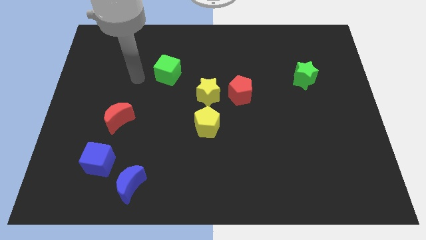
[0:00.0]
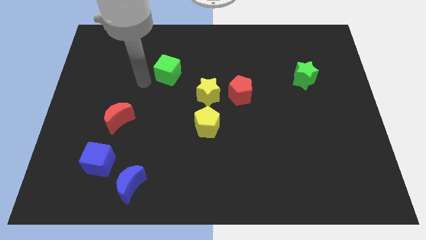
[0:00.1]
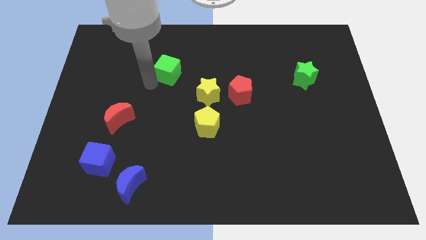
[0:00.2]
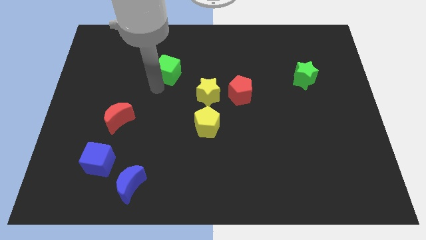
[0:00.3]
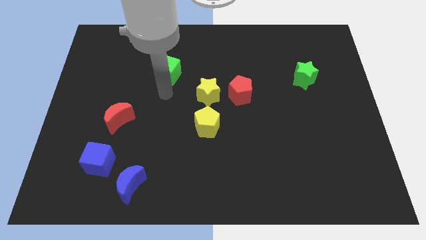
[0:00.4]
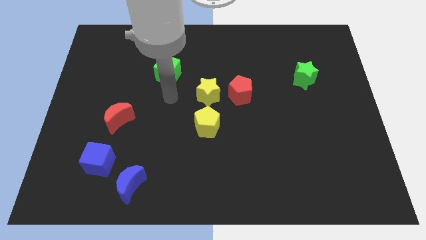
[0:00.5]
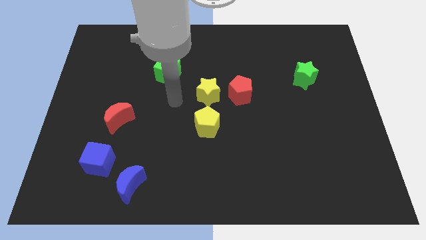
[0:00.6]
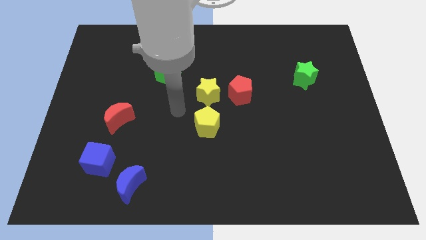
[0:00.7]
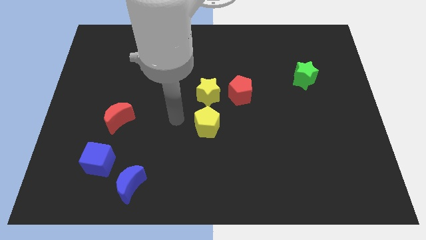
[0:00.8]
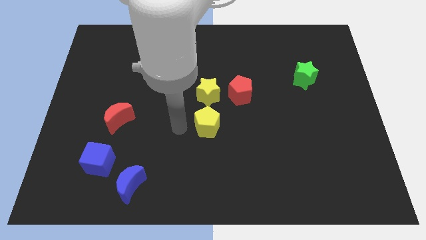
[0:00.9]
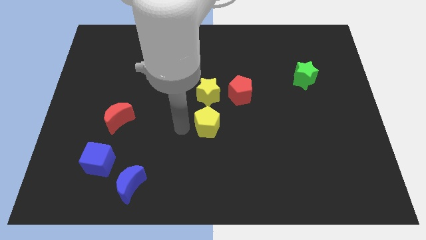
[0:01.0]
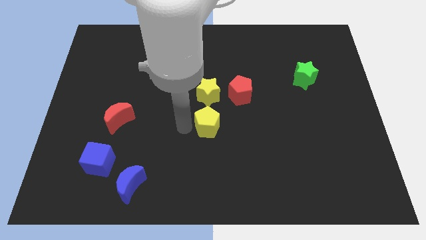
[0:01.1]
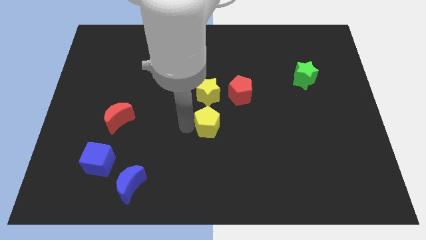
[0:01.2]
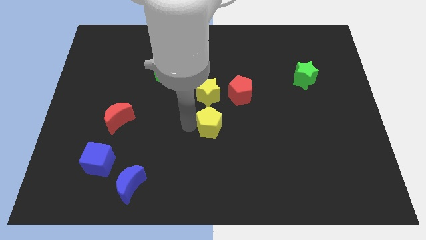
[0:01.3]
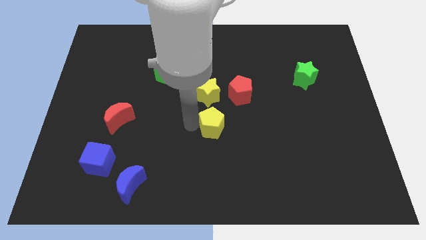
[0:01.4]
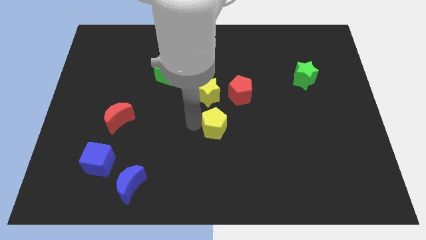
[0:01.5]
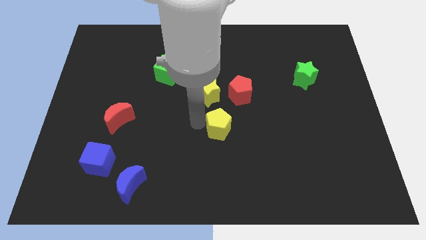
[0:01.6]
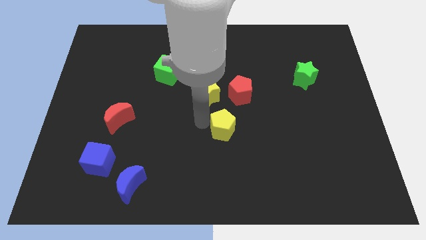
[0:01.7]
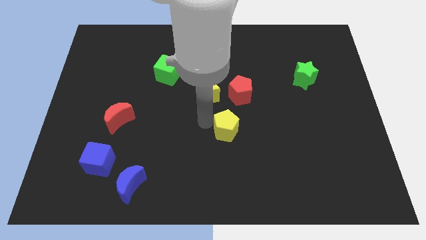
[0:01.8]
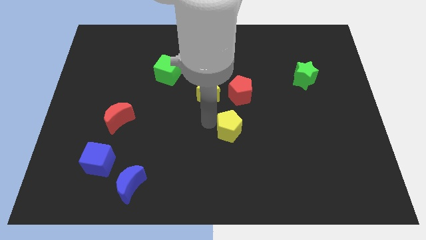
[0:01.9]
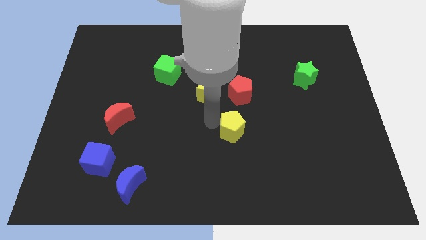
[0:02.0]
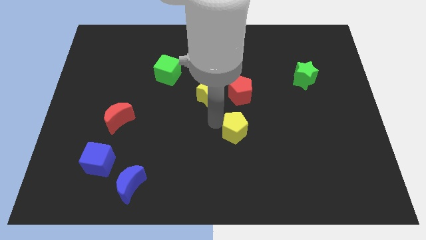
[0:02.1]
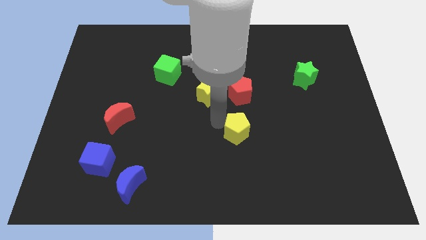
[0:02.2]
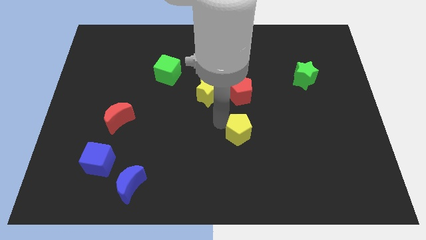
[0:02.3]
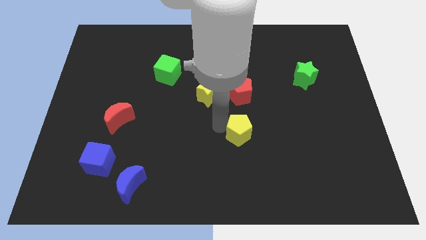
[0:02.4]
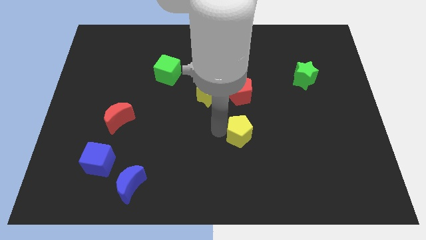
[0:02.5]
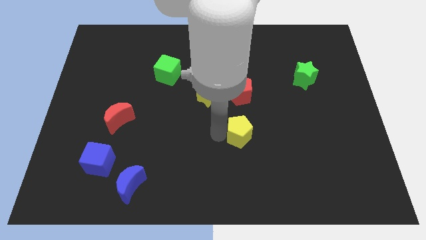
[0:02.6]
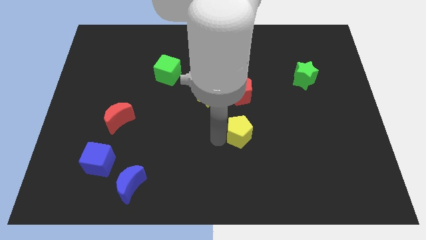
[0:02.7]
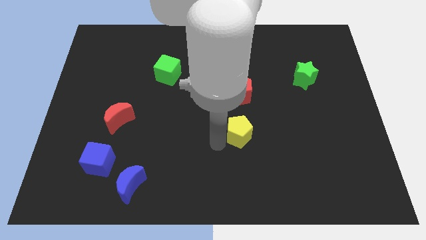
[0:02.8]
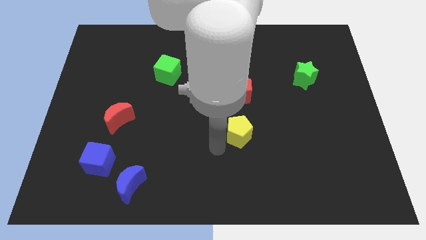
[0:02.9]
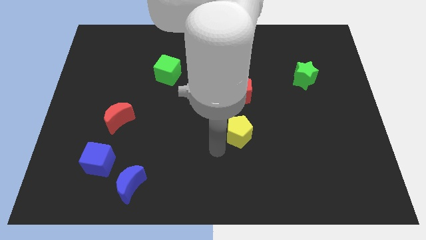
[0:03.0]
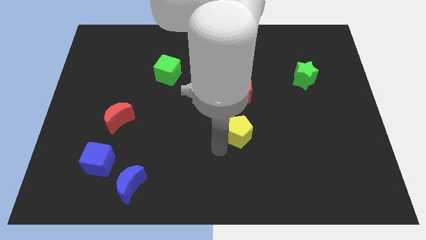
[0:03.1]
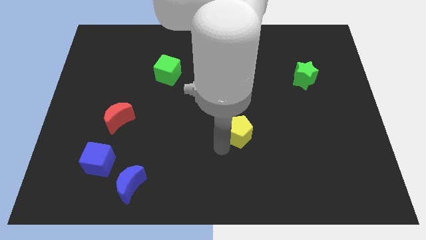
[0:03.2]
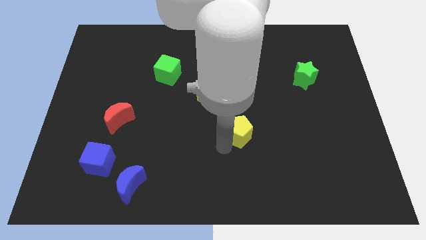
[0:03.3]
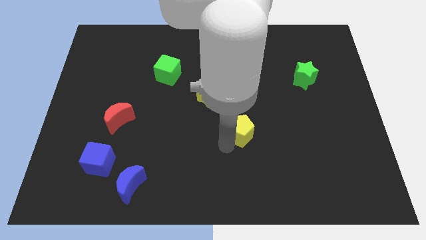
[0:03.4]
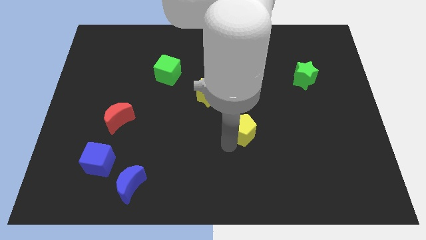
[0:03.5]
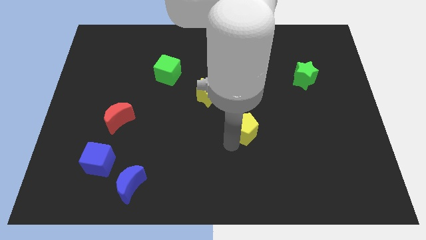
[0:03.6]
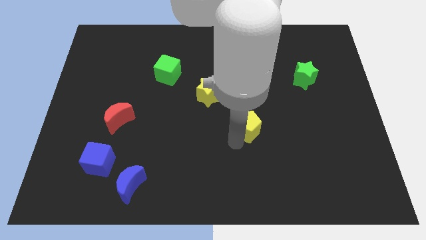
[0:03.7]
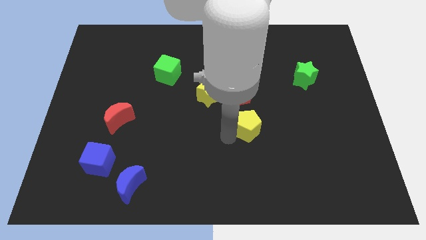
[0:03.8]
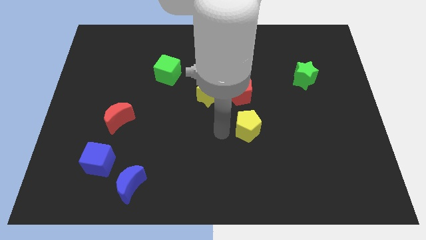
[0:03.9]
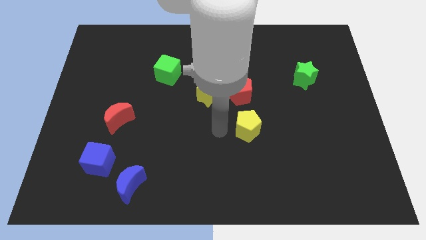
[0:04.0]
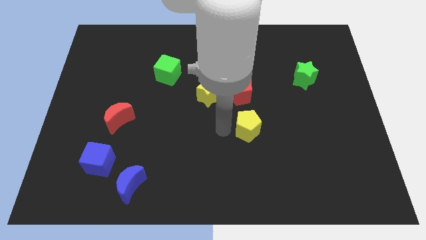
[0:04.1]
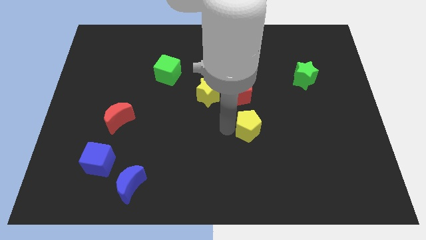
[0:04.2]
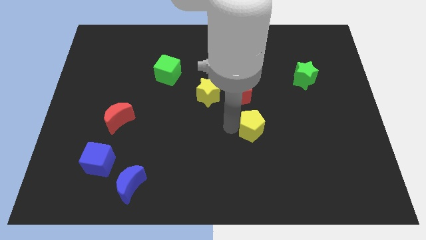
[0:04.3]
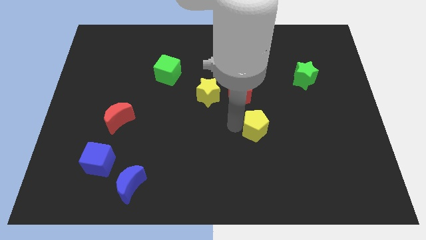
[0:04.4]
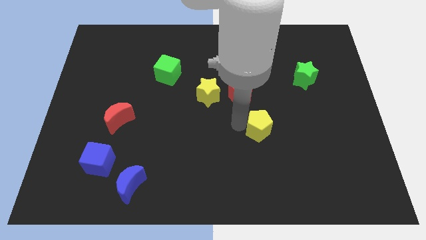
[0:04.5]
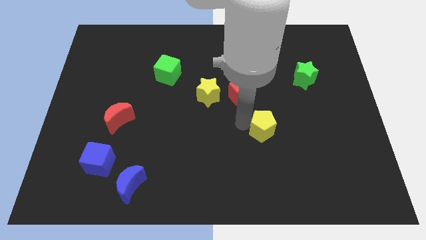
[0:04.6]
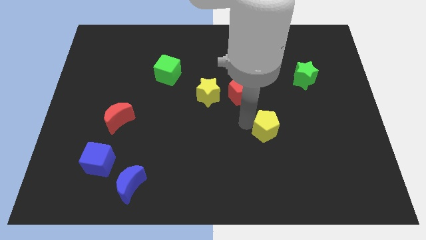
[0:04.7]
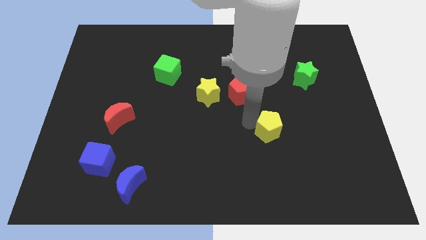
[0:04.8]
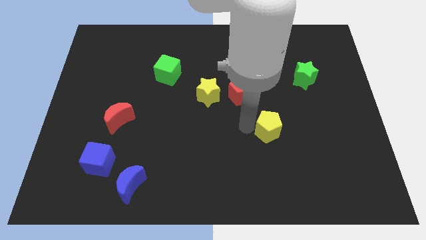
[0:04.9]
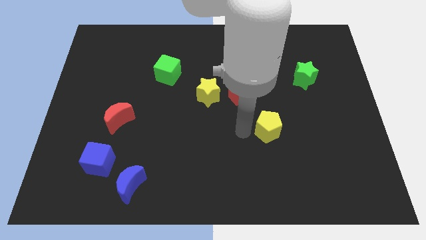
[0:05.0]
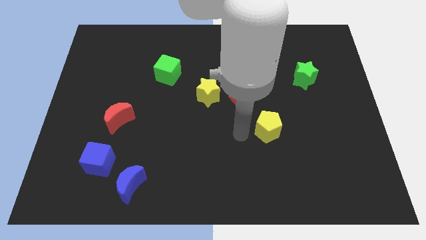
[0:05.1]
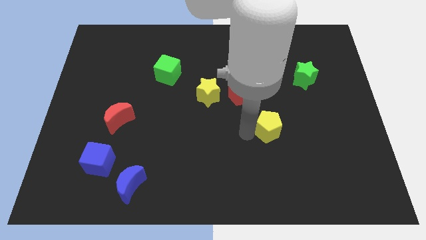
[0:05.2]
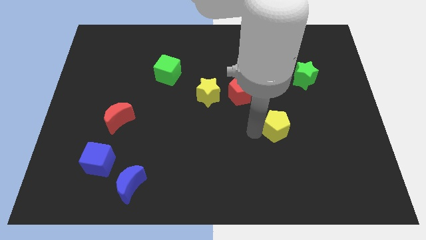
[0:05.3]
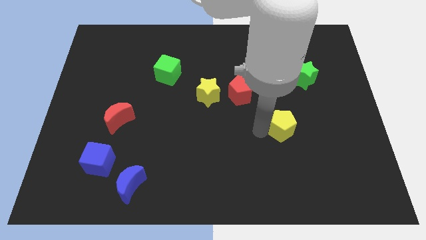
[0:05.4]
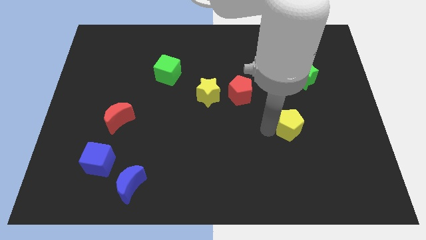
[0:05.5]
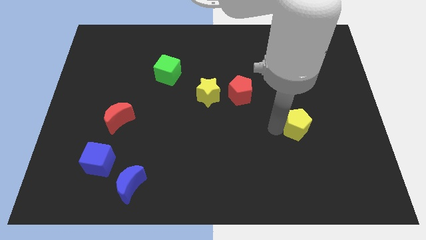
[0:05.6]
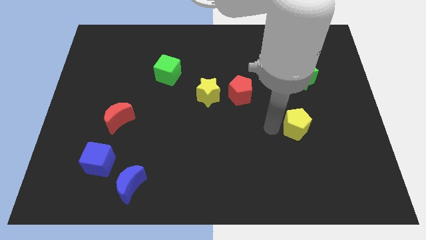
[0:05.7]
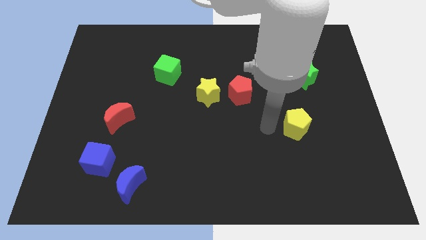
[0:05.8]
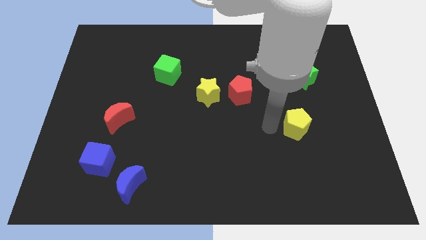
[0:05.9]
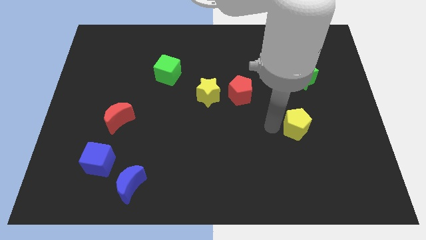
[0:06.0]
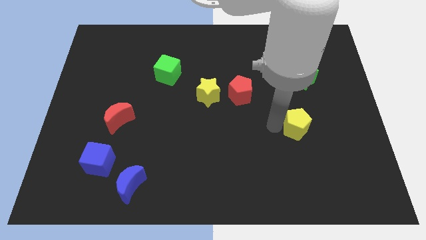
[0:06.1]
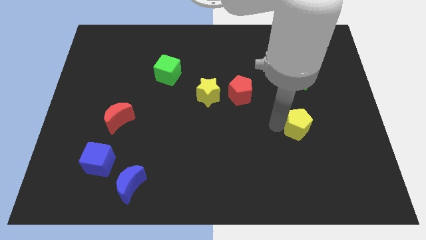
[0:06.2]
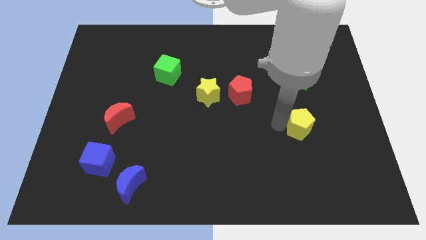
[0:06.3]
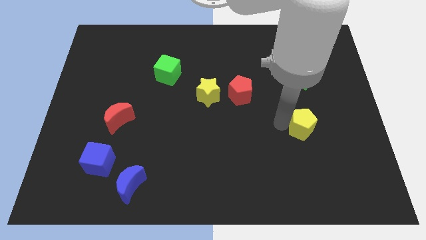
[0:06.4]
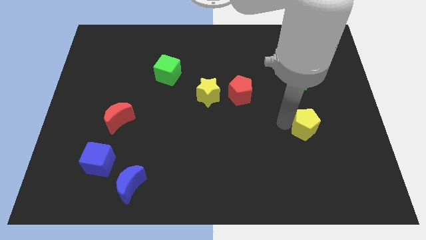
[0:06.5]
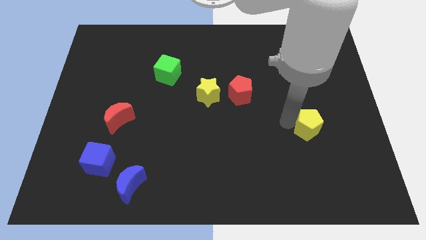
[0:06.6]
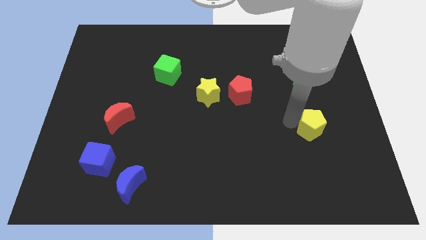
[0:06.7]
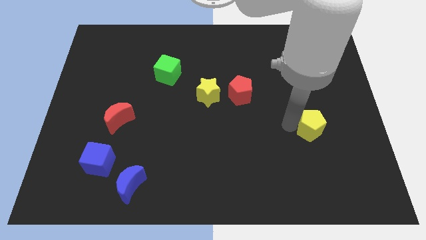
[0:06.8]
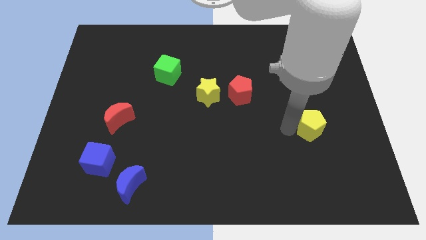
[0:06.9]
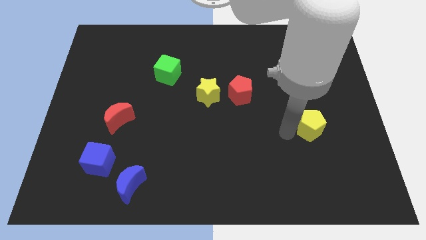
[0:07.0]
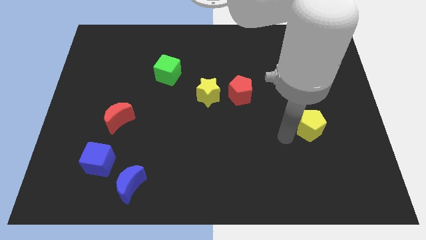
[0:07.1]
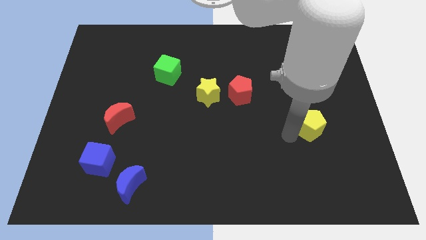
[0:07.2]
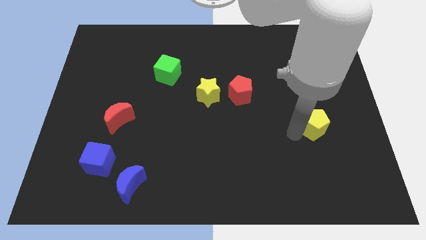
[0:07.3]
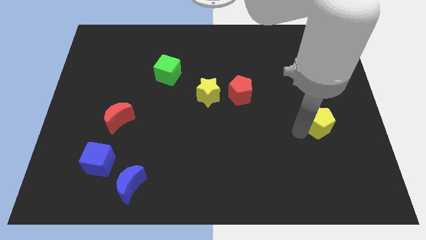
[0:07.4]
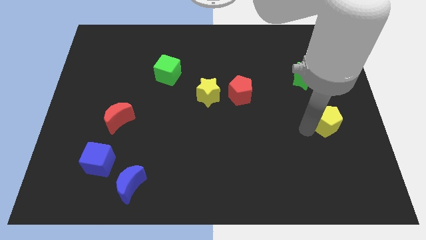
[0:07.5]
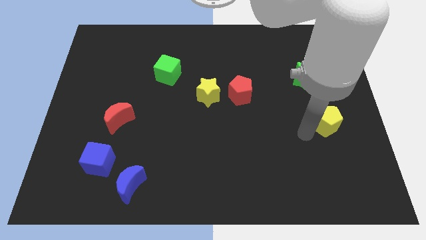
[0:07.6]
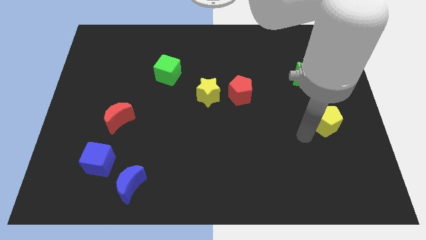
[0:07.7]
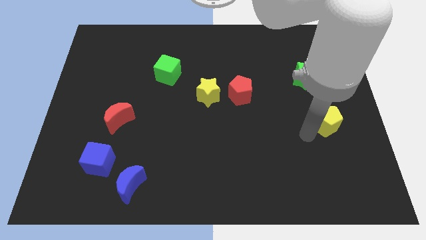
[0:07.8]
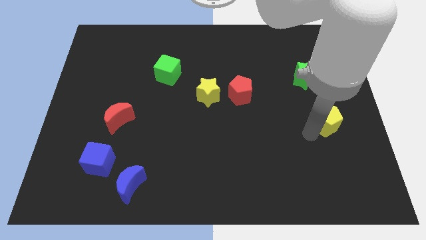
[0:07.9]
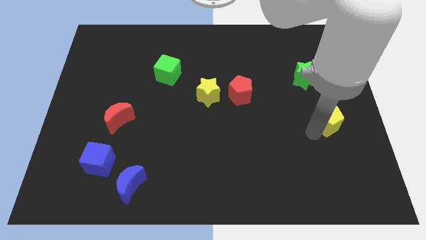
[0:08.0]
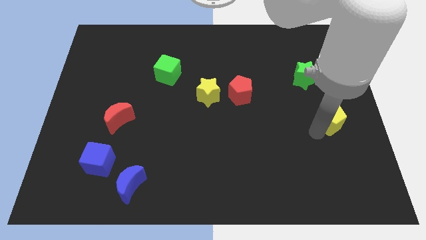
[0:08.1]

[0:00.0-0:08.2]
move the yellow pentagon to the center right
